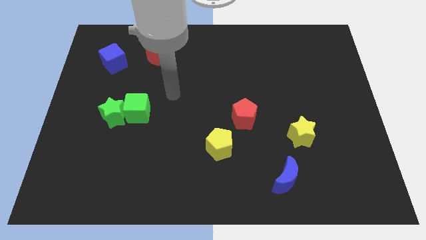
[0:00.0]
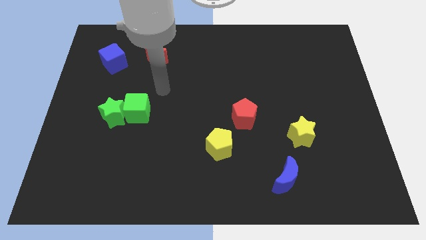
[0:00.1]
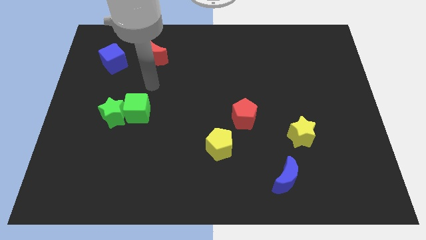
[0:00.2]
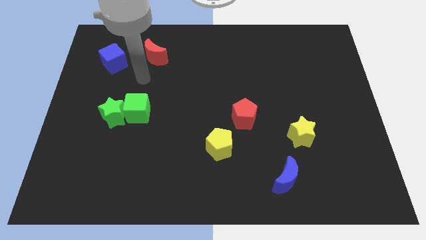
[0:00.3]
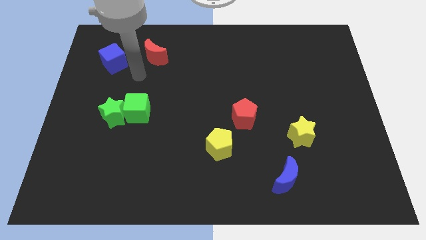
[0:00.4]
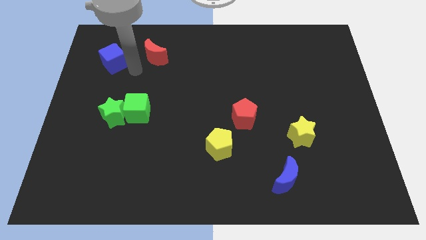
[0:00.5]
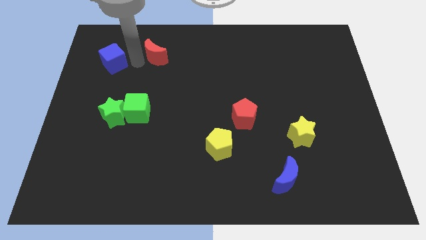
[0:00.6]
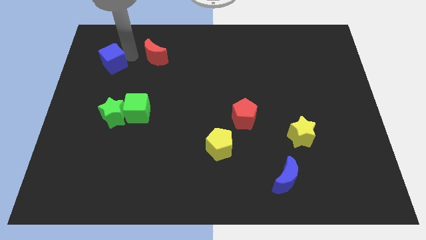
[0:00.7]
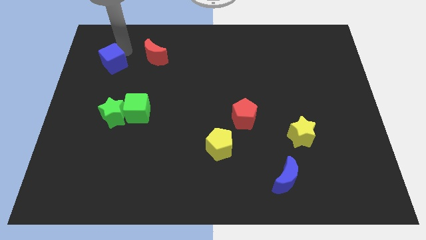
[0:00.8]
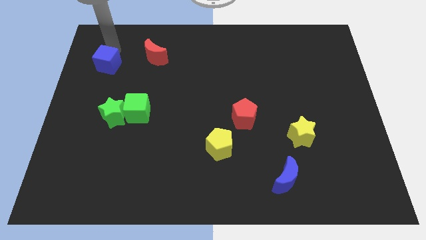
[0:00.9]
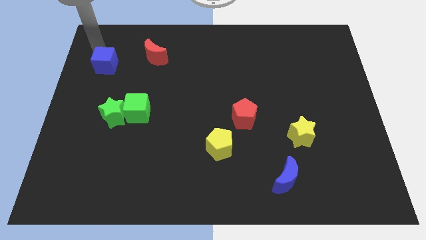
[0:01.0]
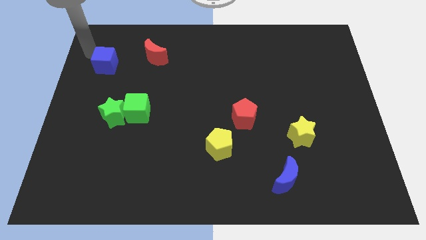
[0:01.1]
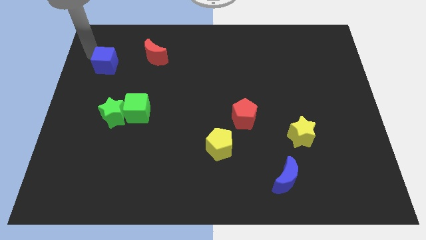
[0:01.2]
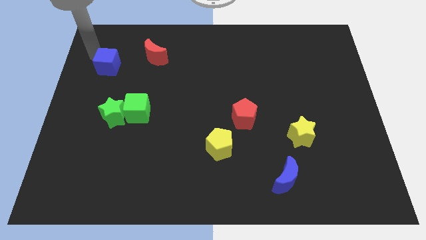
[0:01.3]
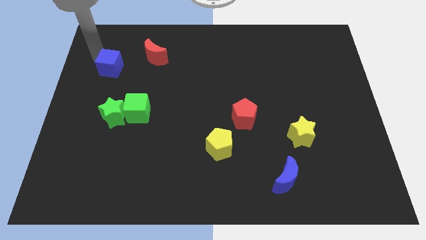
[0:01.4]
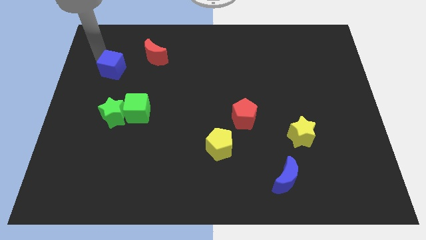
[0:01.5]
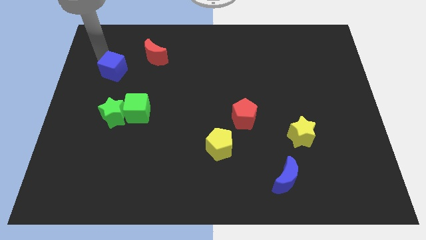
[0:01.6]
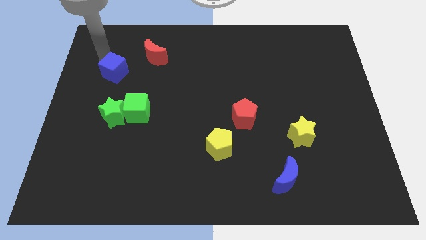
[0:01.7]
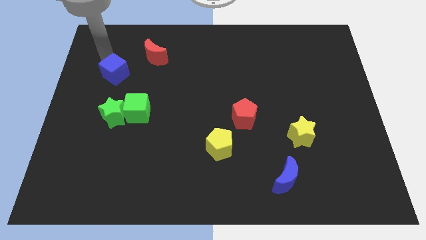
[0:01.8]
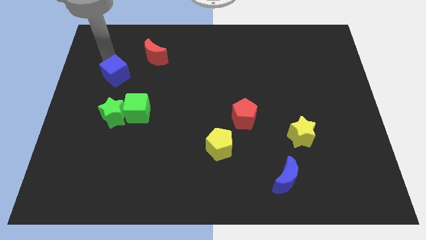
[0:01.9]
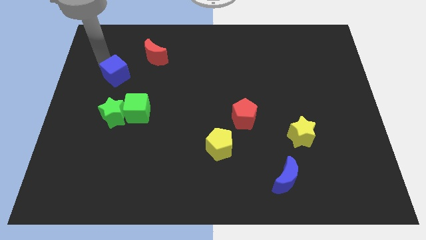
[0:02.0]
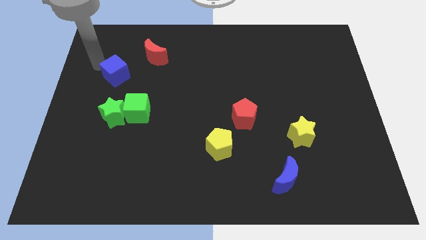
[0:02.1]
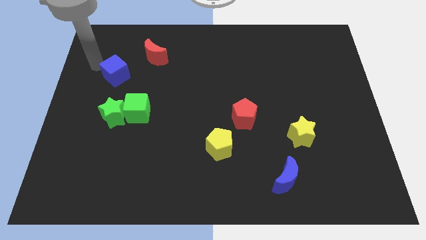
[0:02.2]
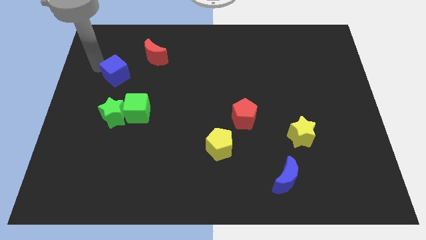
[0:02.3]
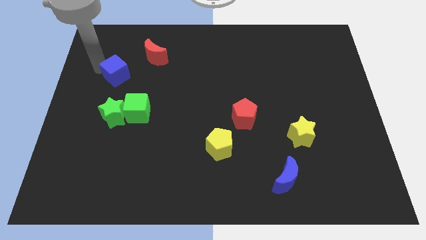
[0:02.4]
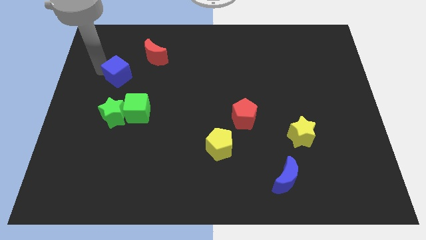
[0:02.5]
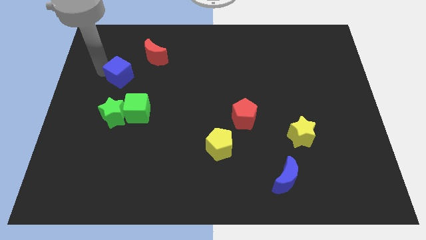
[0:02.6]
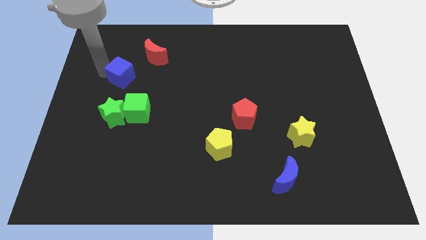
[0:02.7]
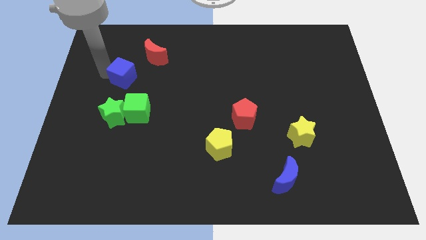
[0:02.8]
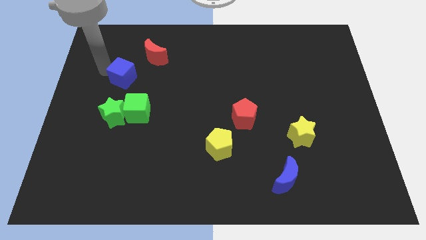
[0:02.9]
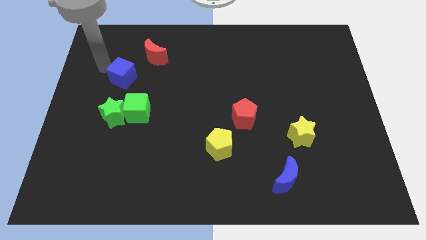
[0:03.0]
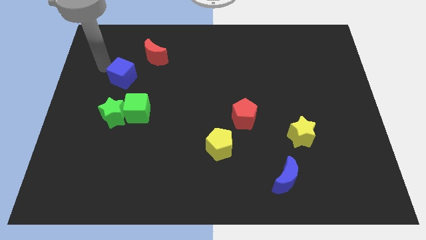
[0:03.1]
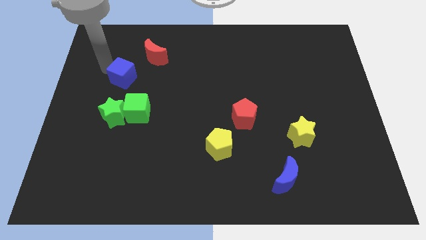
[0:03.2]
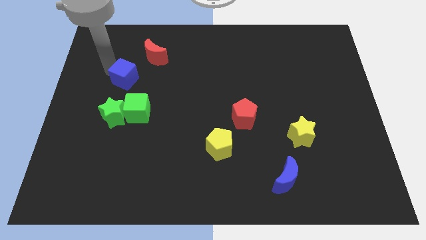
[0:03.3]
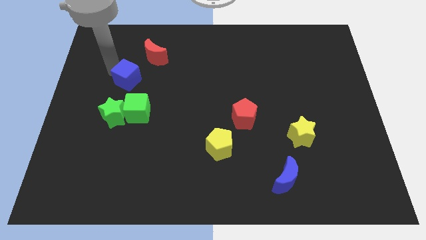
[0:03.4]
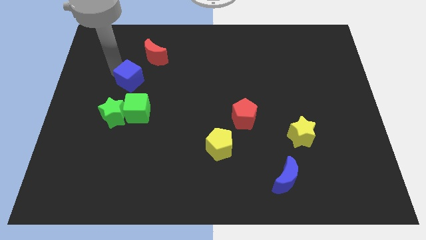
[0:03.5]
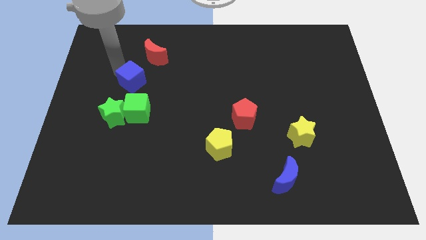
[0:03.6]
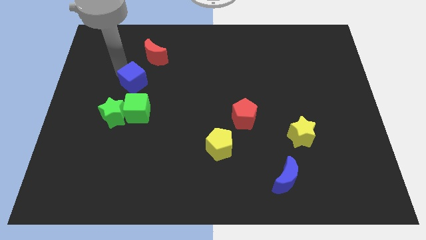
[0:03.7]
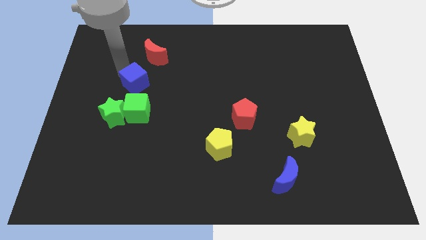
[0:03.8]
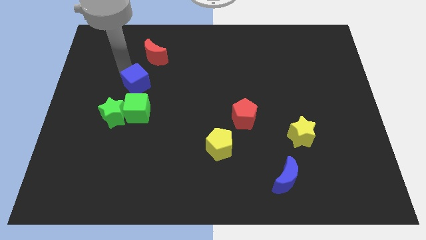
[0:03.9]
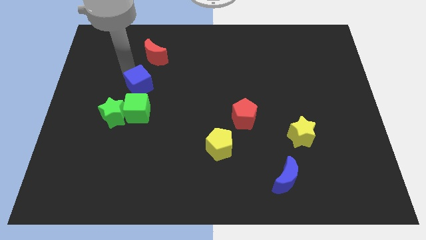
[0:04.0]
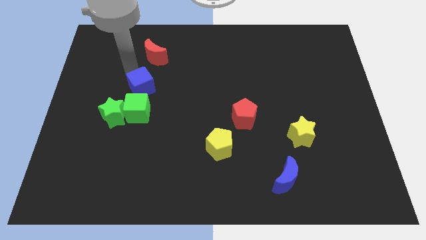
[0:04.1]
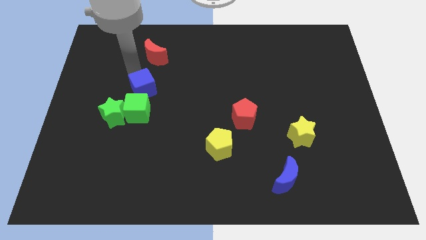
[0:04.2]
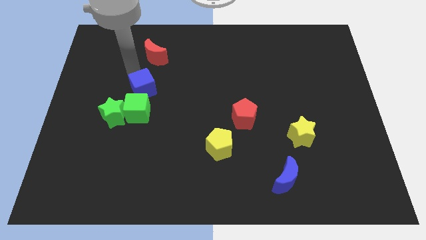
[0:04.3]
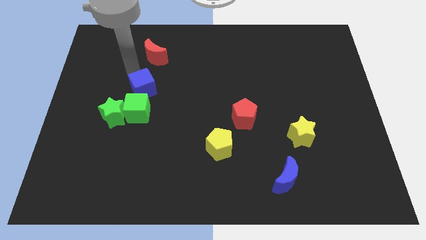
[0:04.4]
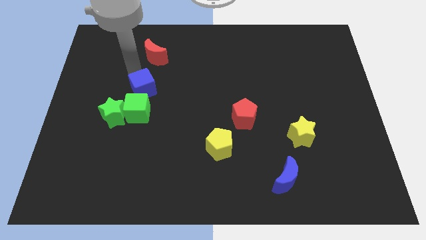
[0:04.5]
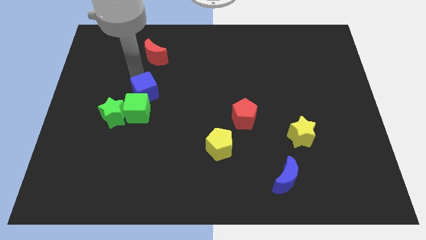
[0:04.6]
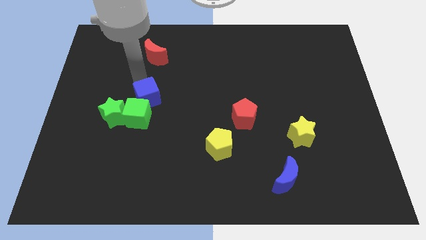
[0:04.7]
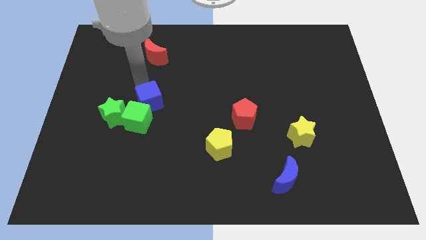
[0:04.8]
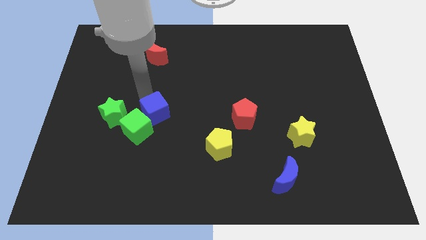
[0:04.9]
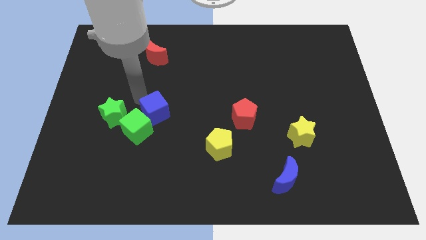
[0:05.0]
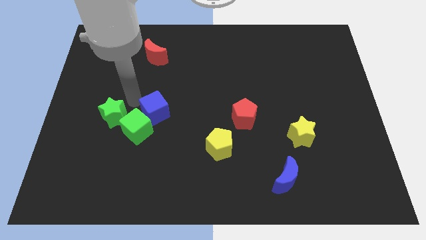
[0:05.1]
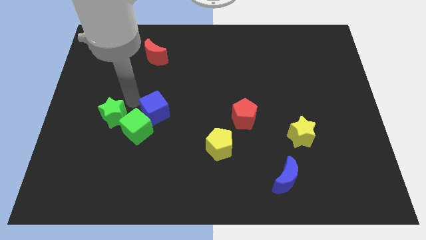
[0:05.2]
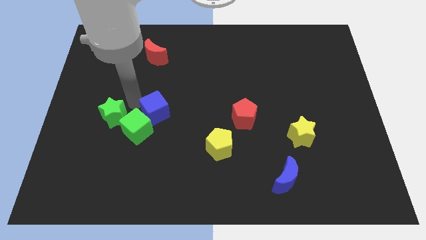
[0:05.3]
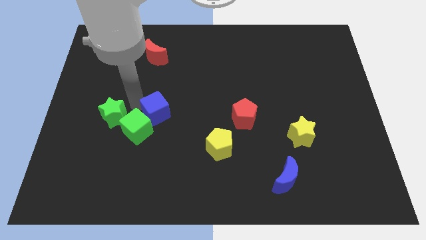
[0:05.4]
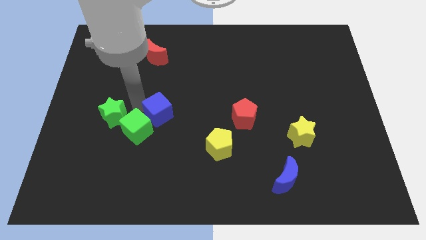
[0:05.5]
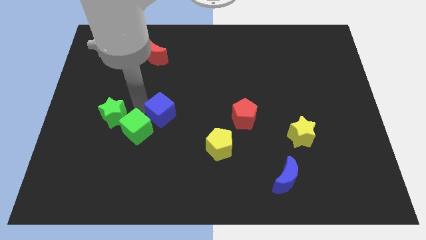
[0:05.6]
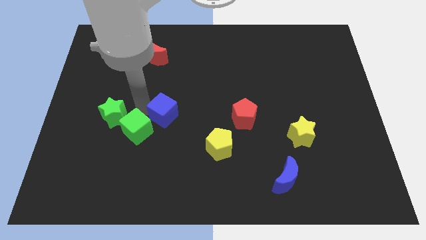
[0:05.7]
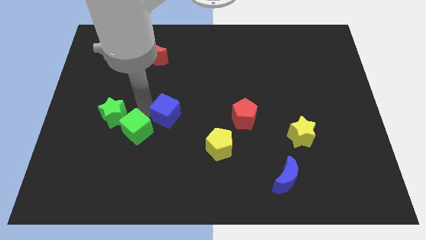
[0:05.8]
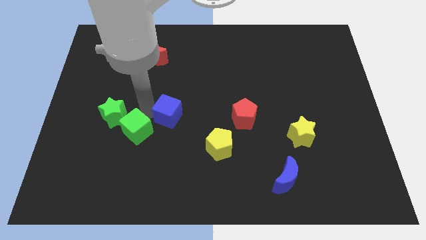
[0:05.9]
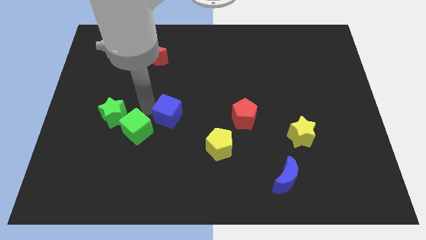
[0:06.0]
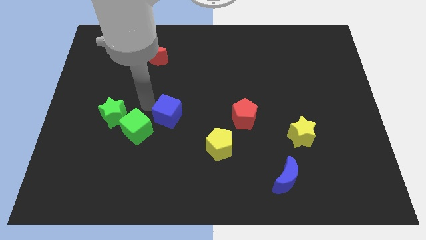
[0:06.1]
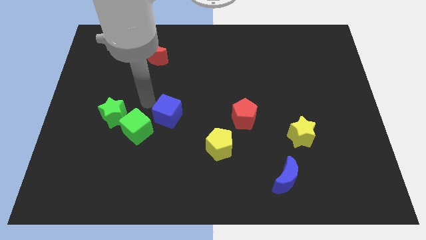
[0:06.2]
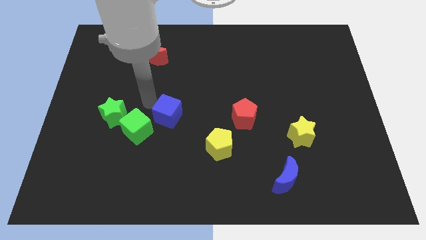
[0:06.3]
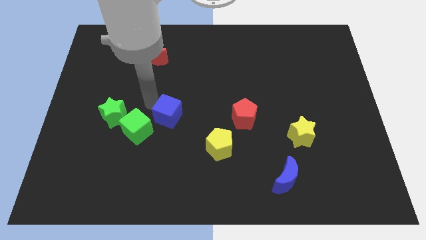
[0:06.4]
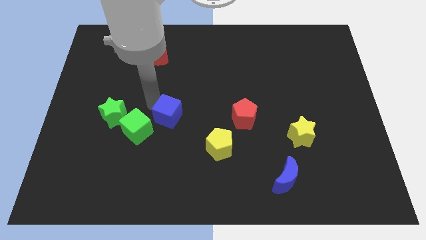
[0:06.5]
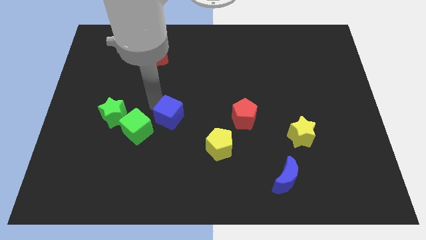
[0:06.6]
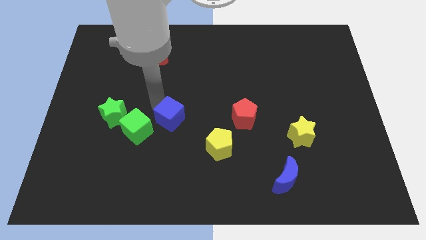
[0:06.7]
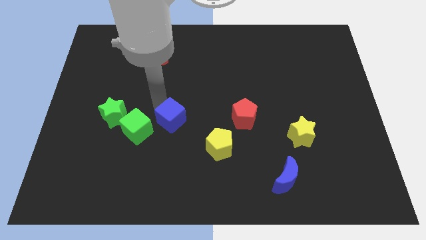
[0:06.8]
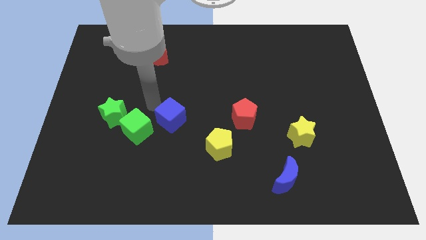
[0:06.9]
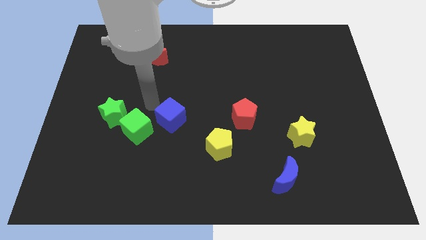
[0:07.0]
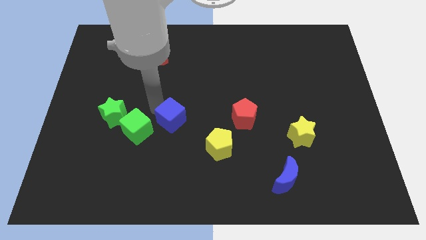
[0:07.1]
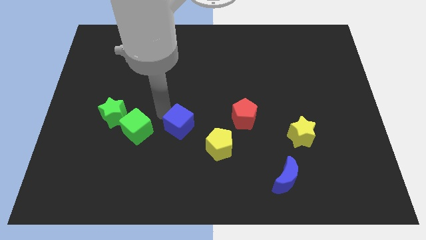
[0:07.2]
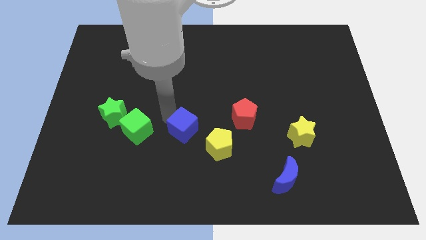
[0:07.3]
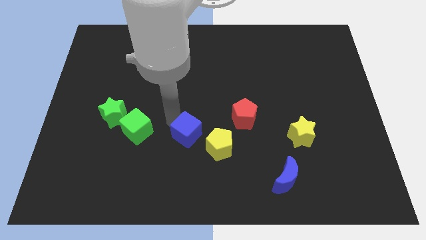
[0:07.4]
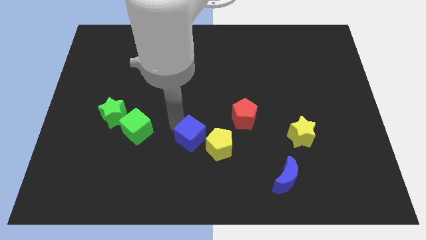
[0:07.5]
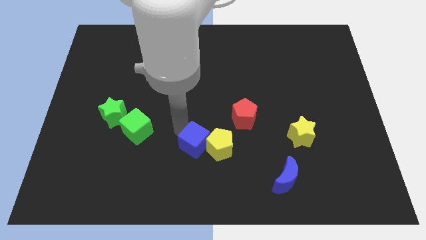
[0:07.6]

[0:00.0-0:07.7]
move the blue cube towards the yellow pentagon
